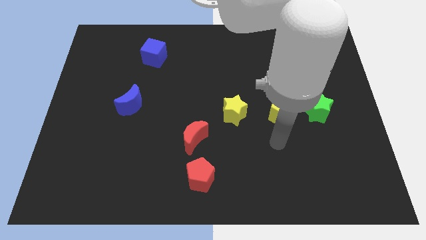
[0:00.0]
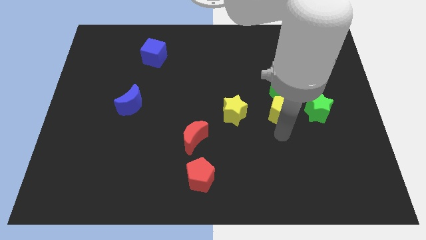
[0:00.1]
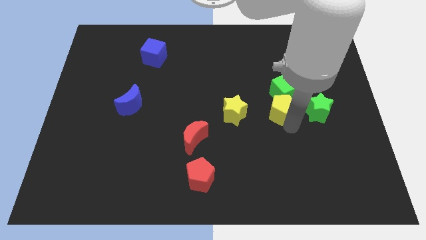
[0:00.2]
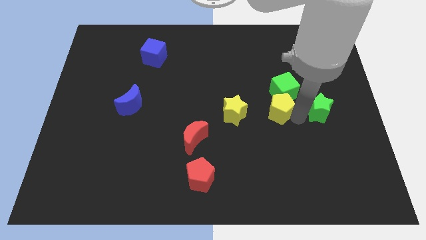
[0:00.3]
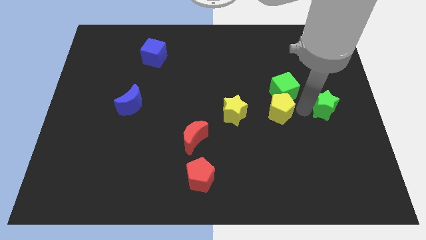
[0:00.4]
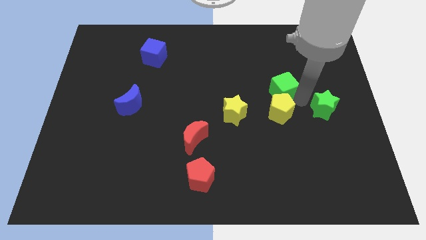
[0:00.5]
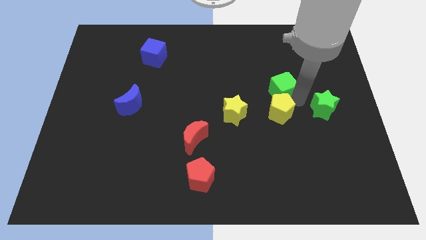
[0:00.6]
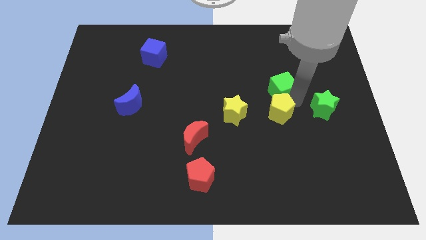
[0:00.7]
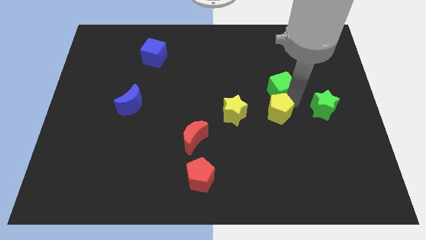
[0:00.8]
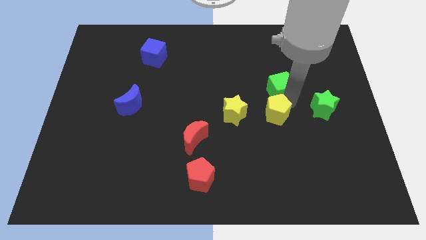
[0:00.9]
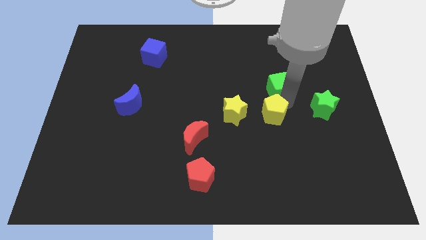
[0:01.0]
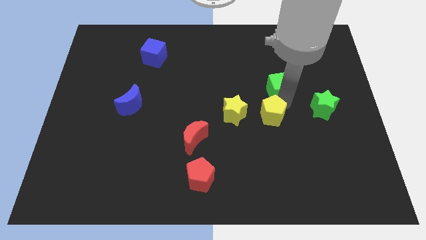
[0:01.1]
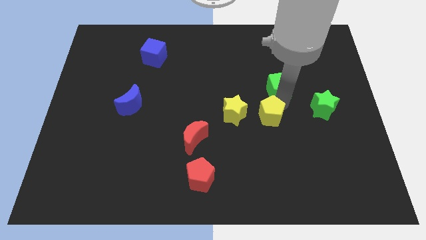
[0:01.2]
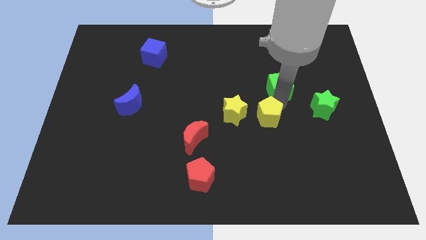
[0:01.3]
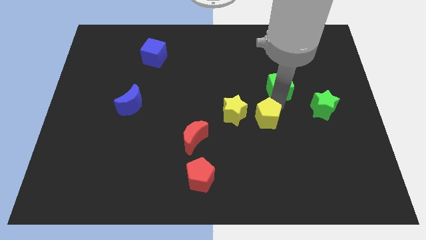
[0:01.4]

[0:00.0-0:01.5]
separate the yellow pentagon from the green cube and green star

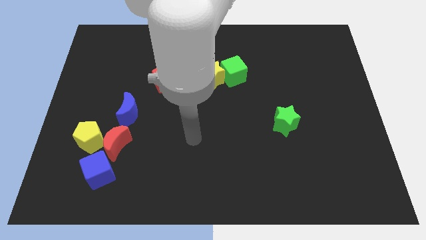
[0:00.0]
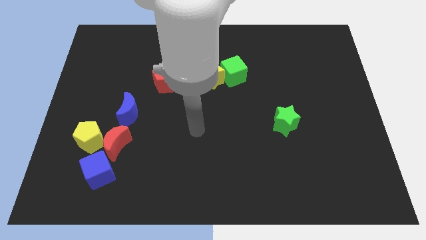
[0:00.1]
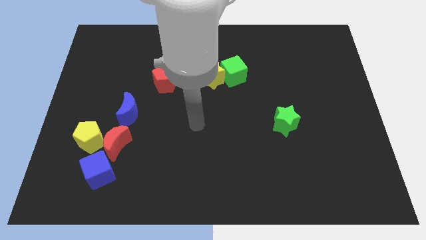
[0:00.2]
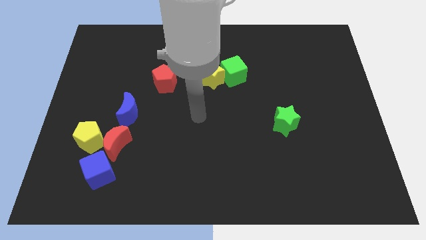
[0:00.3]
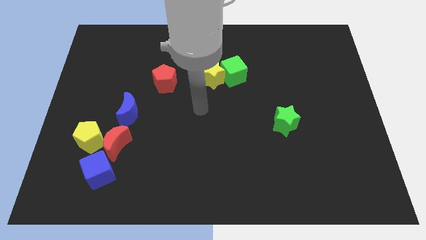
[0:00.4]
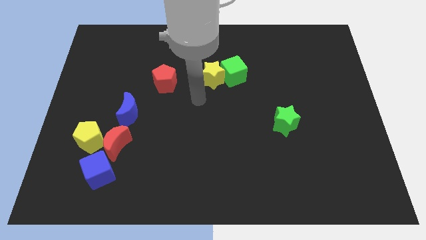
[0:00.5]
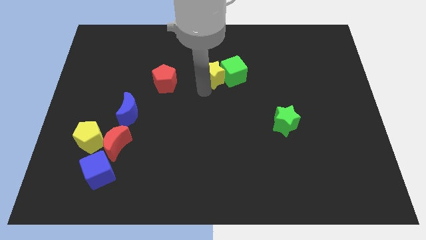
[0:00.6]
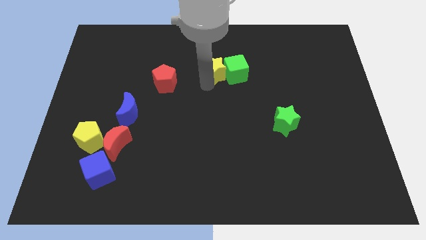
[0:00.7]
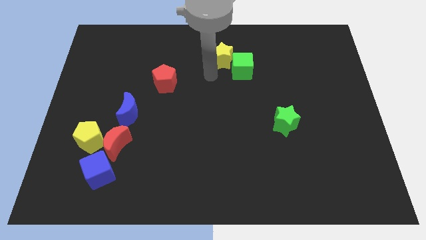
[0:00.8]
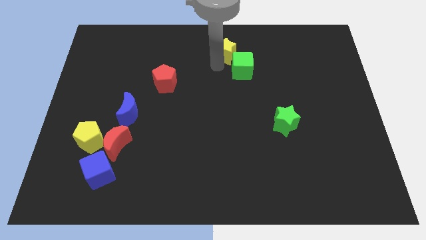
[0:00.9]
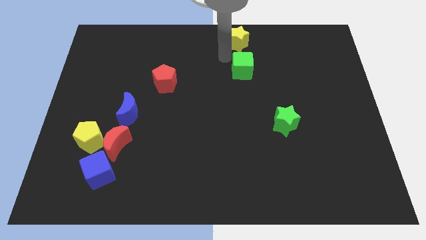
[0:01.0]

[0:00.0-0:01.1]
separate the green cube from the yellow star

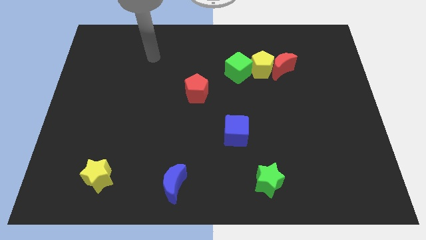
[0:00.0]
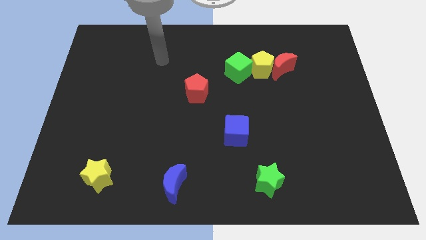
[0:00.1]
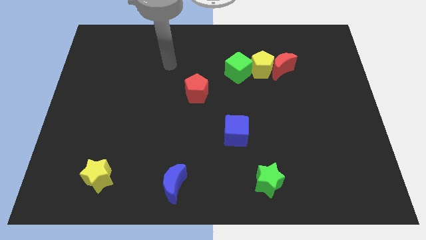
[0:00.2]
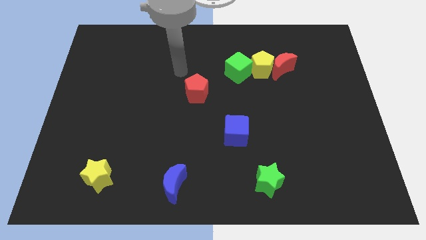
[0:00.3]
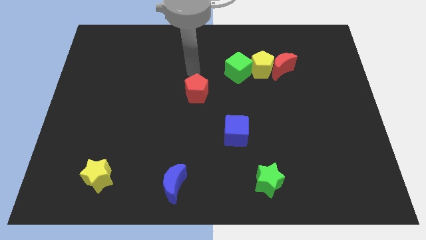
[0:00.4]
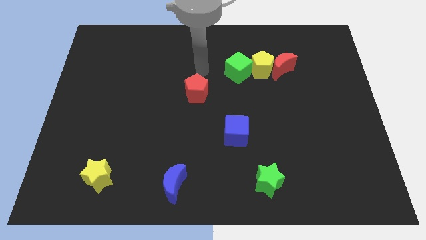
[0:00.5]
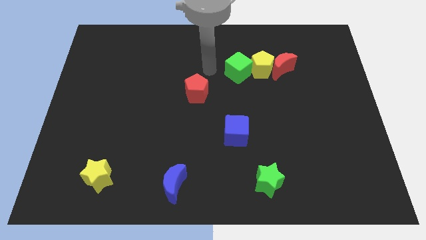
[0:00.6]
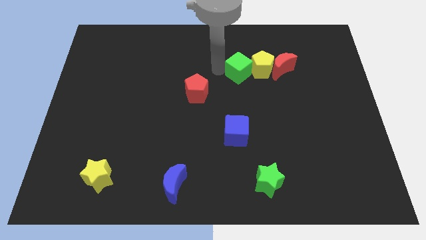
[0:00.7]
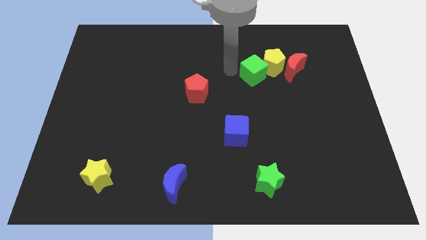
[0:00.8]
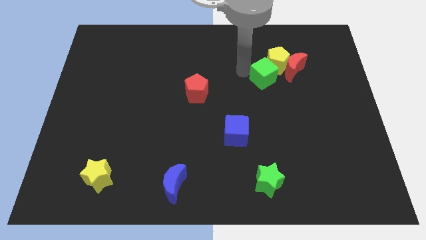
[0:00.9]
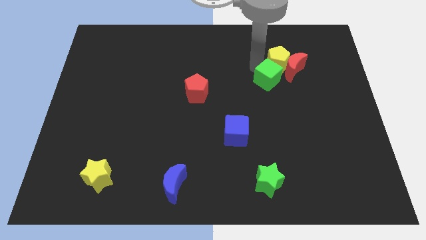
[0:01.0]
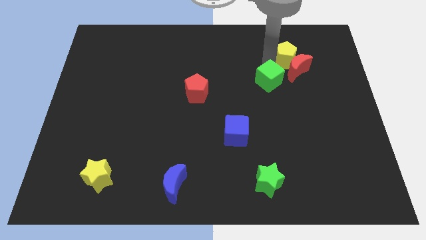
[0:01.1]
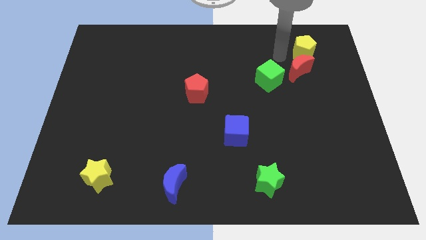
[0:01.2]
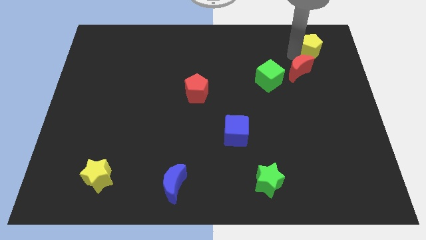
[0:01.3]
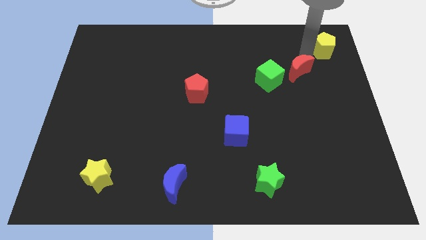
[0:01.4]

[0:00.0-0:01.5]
pull the red moon apart from the yellow pentagon

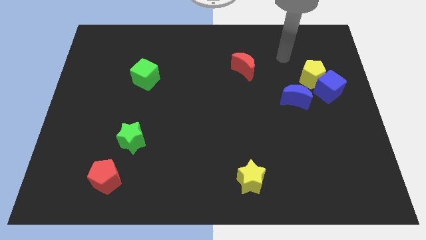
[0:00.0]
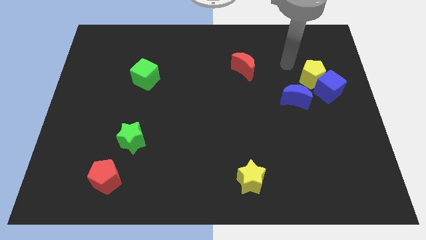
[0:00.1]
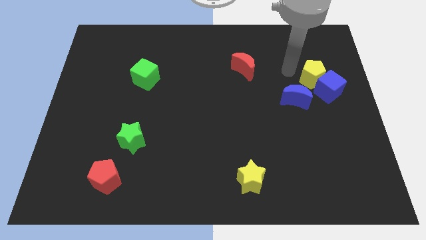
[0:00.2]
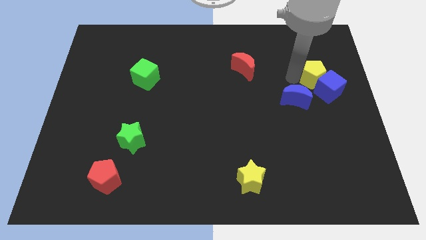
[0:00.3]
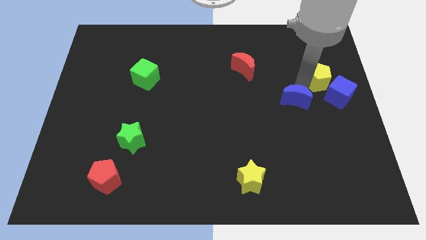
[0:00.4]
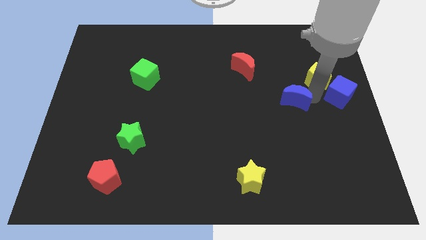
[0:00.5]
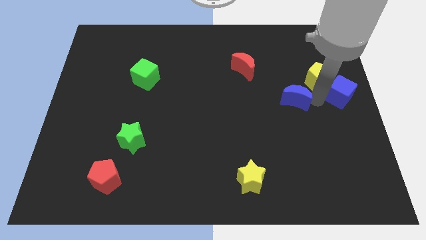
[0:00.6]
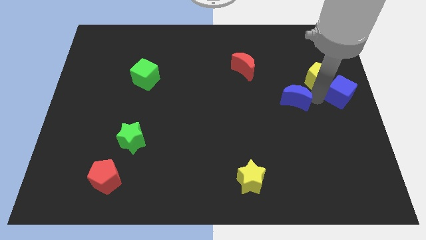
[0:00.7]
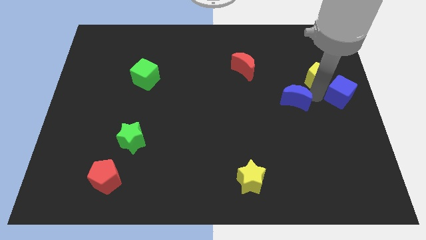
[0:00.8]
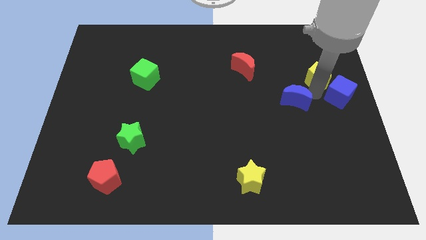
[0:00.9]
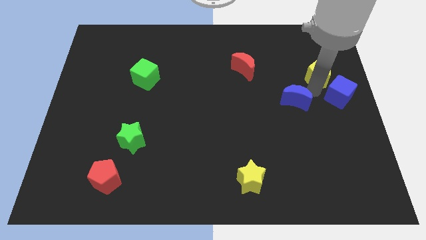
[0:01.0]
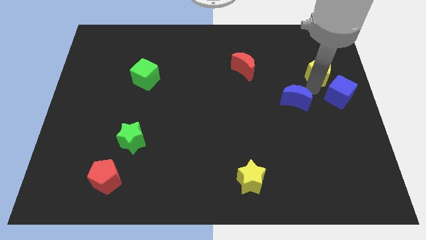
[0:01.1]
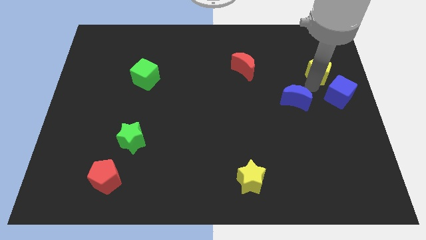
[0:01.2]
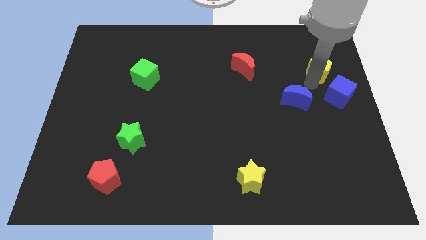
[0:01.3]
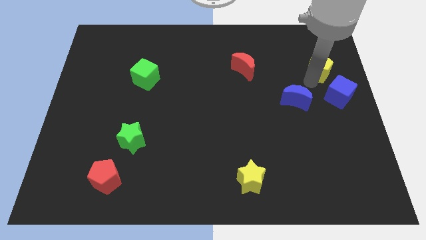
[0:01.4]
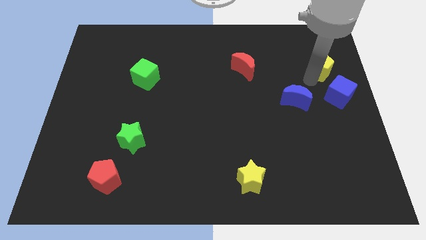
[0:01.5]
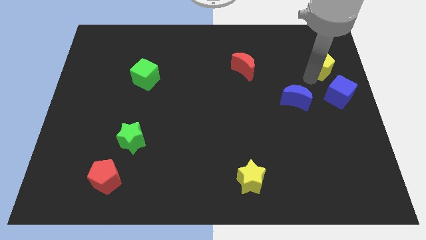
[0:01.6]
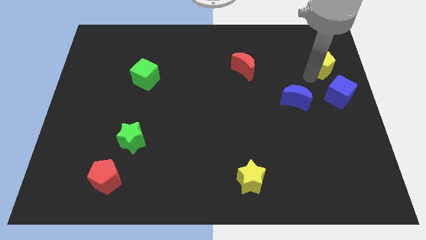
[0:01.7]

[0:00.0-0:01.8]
separate the yellow pentagon from the blue cube and blue moon

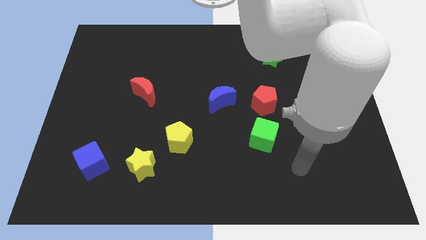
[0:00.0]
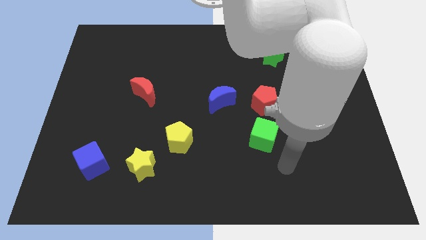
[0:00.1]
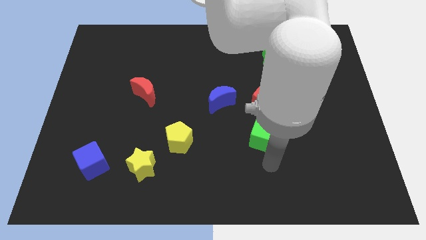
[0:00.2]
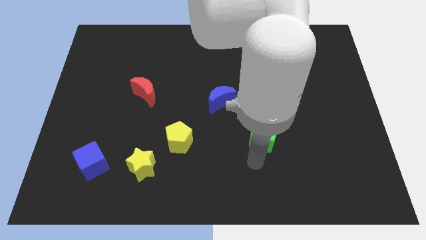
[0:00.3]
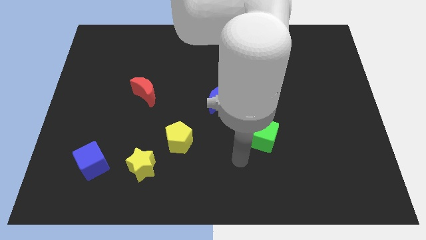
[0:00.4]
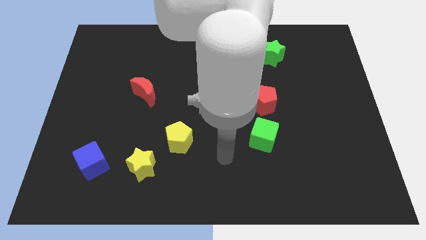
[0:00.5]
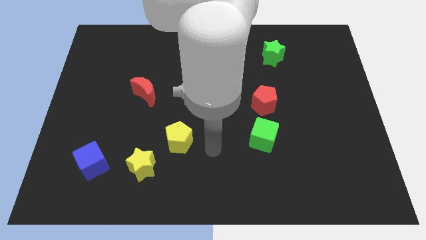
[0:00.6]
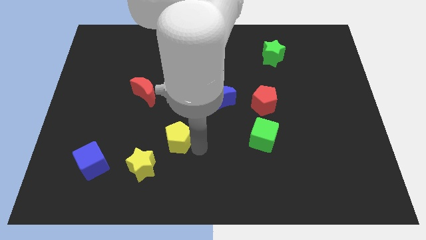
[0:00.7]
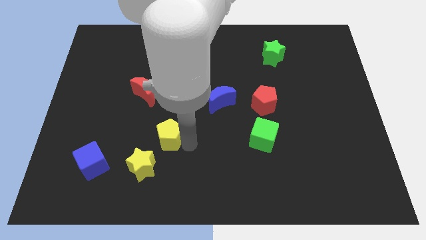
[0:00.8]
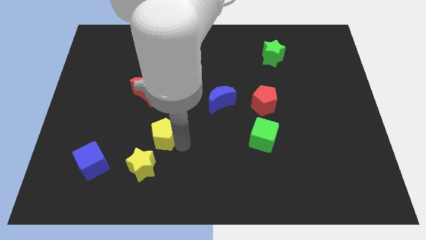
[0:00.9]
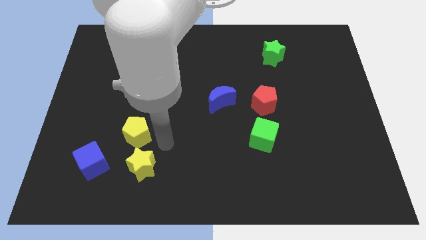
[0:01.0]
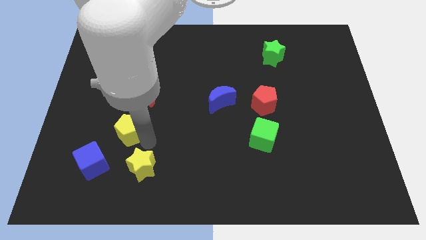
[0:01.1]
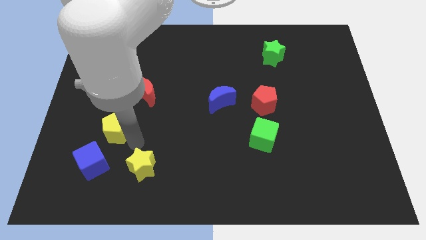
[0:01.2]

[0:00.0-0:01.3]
move the yellow star away from the yellow pentagon

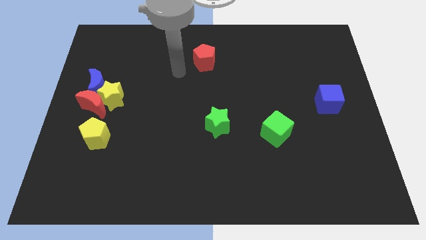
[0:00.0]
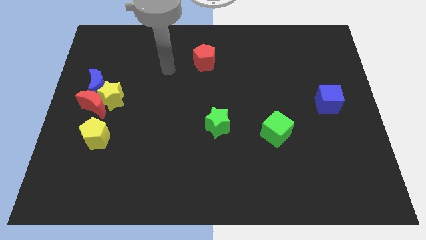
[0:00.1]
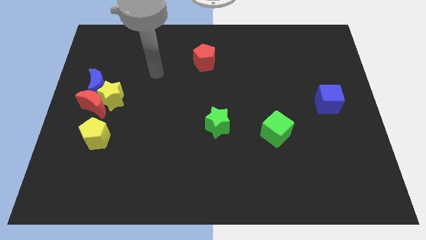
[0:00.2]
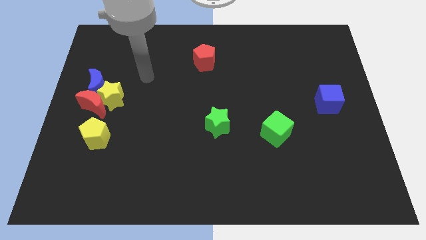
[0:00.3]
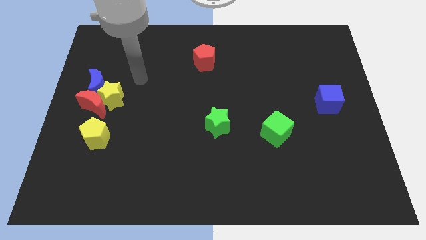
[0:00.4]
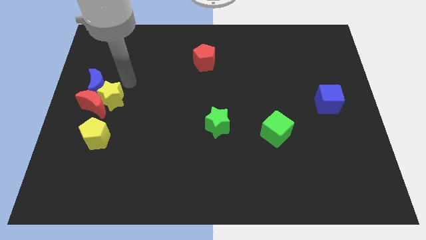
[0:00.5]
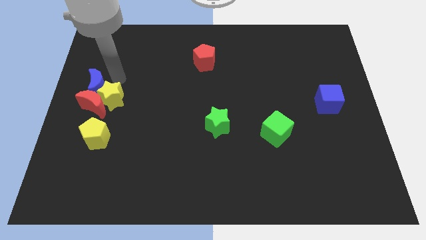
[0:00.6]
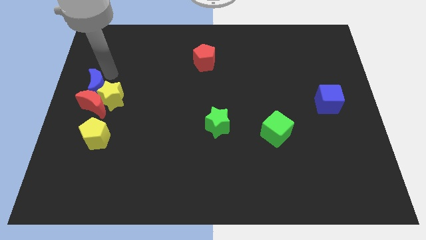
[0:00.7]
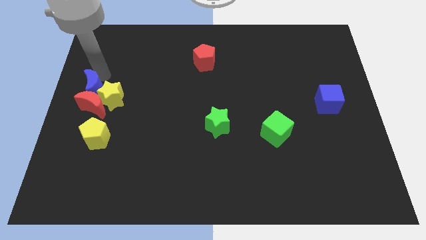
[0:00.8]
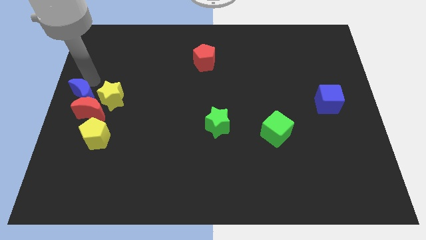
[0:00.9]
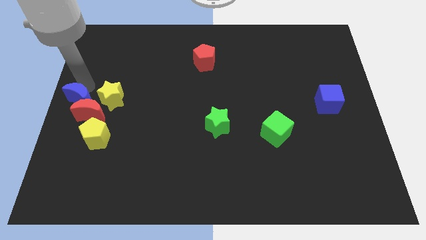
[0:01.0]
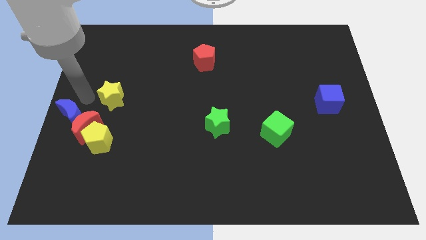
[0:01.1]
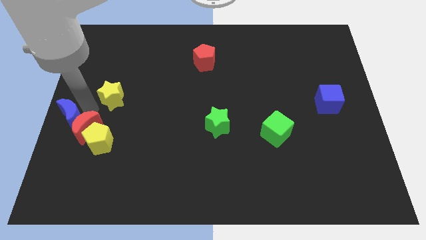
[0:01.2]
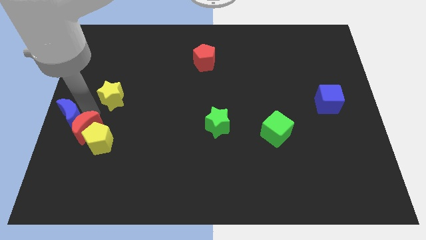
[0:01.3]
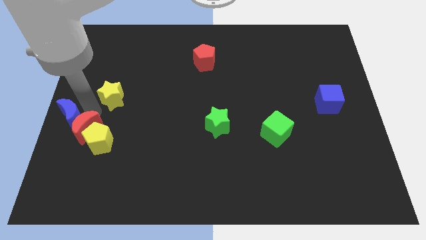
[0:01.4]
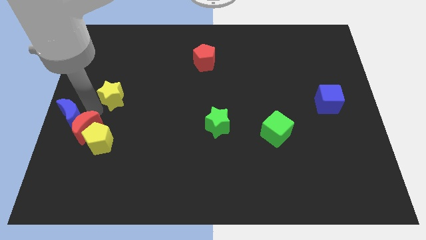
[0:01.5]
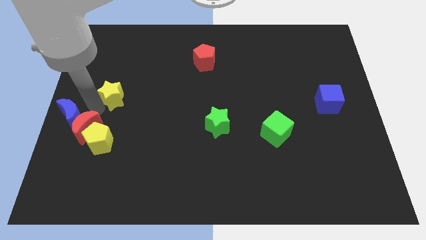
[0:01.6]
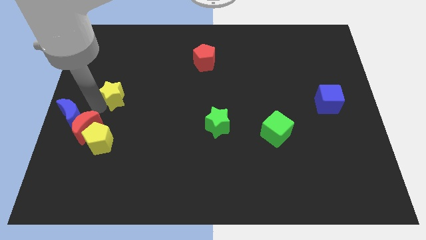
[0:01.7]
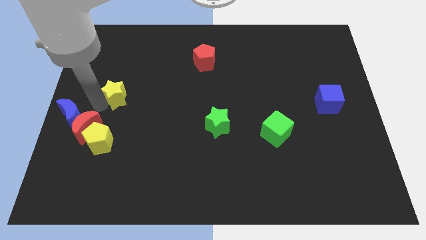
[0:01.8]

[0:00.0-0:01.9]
separate the yellow star from the red moon and blue moon
